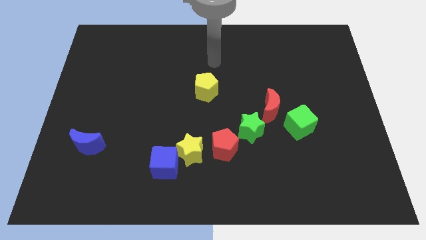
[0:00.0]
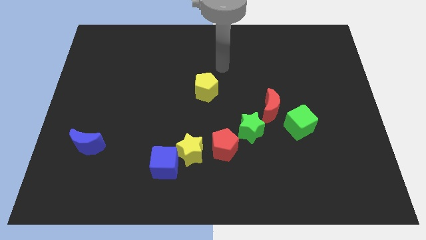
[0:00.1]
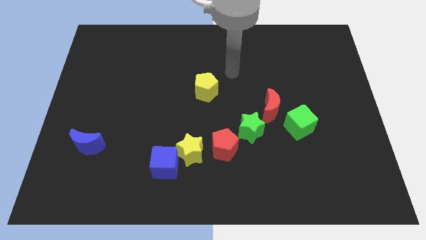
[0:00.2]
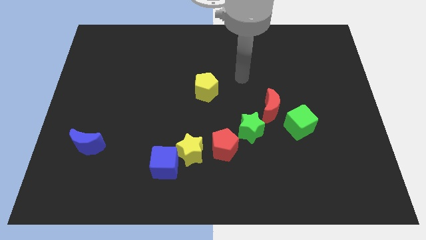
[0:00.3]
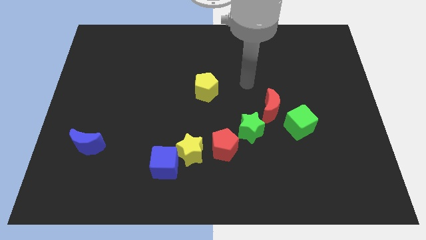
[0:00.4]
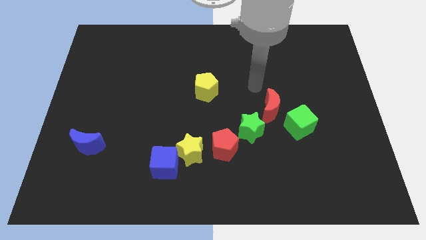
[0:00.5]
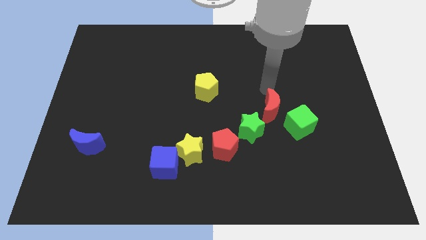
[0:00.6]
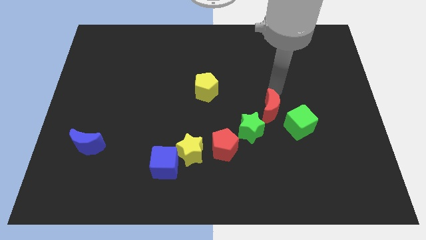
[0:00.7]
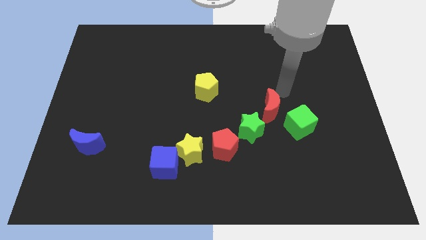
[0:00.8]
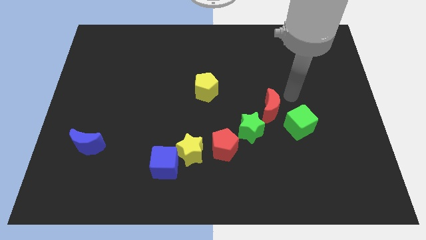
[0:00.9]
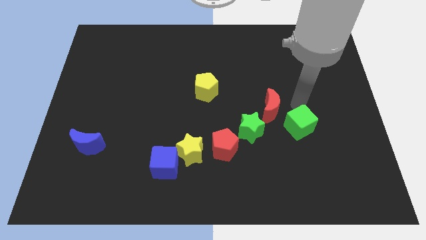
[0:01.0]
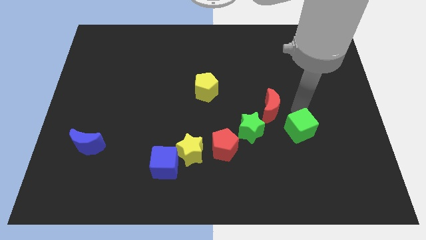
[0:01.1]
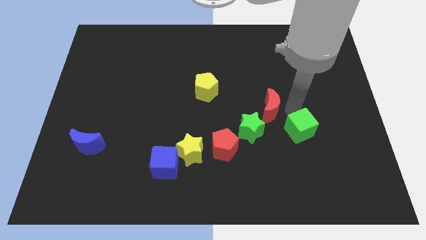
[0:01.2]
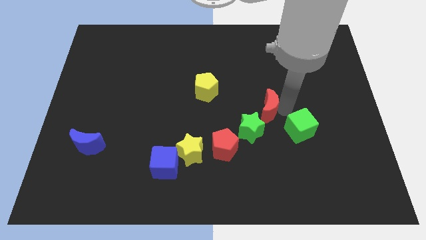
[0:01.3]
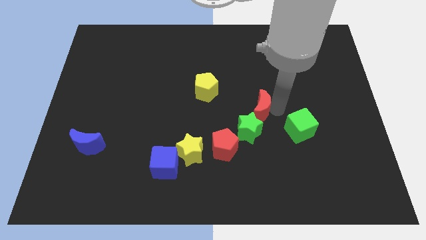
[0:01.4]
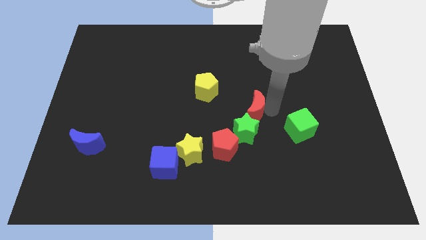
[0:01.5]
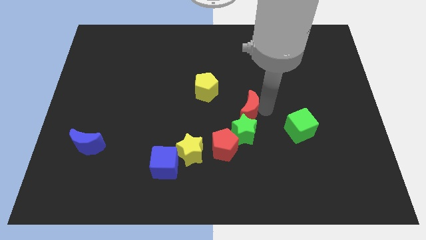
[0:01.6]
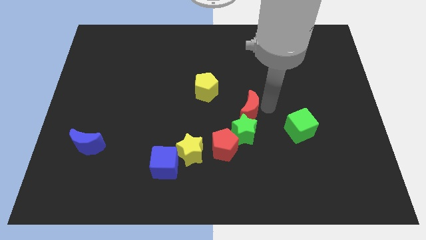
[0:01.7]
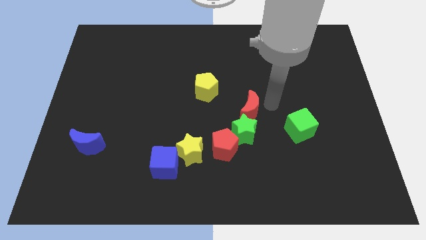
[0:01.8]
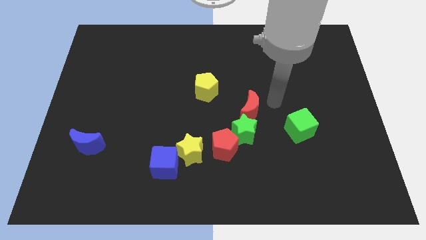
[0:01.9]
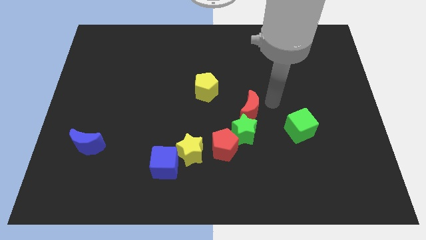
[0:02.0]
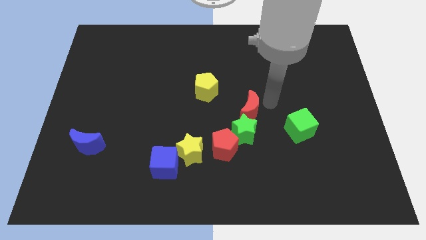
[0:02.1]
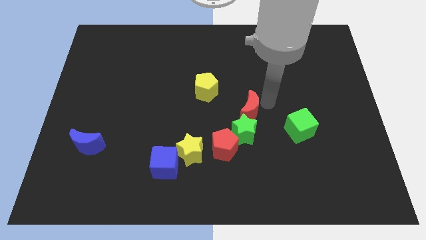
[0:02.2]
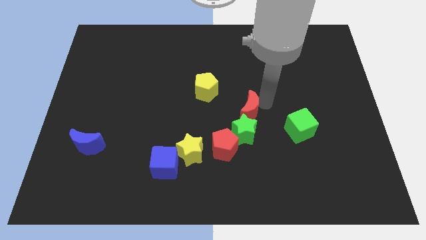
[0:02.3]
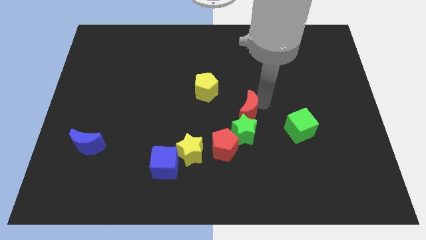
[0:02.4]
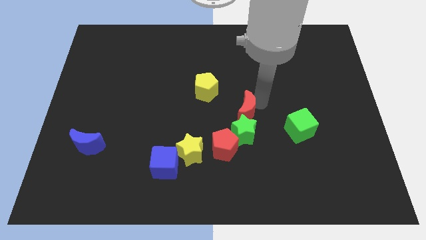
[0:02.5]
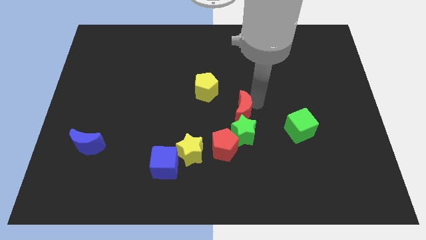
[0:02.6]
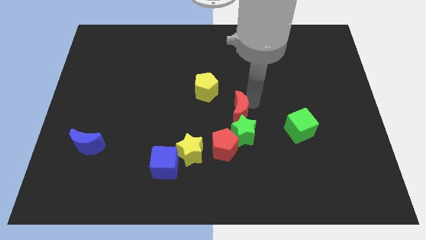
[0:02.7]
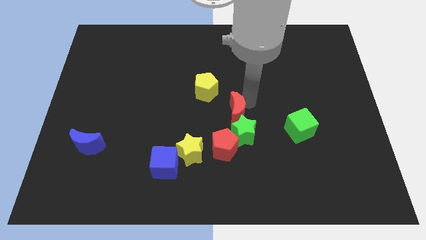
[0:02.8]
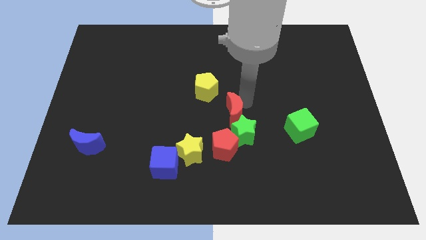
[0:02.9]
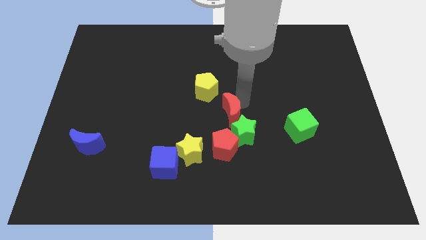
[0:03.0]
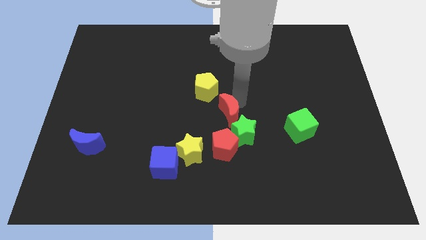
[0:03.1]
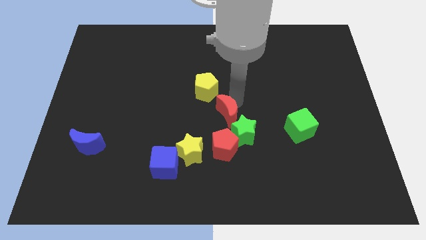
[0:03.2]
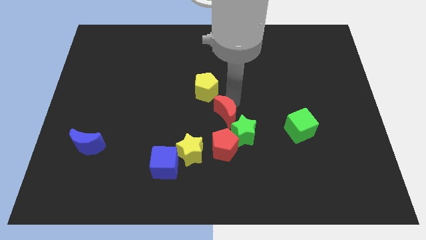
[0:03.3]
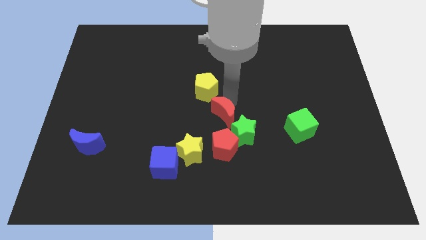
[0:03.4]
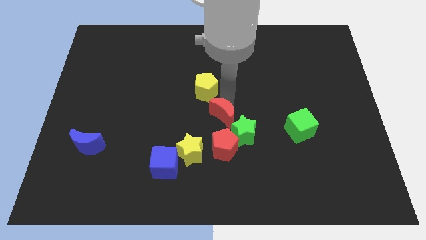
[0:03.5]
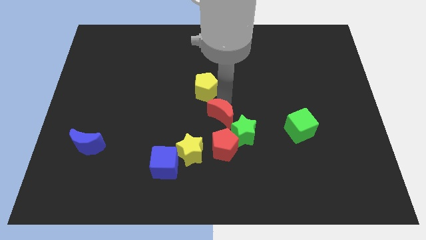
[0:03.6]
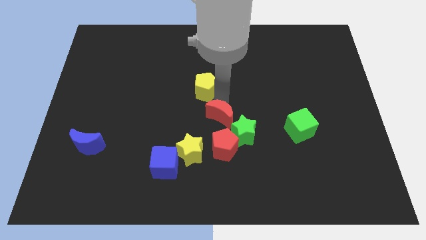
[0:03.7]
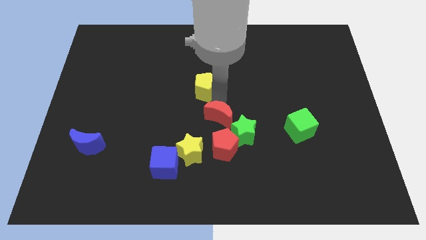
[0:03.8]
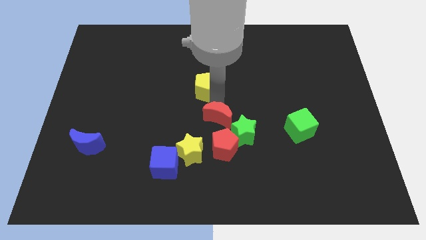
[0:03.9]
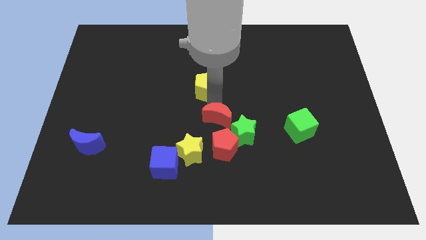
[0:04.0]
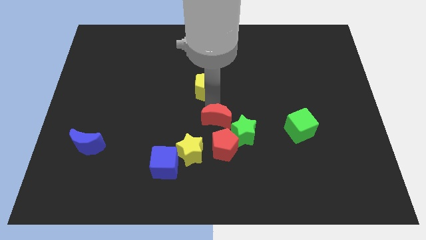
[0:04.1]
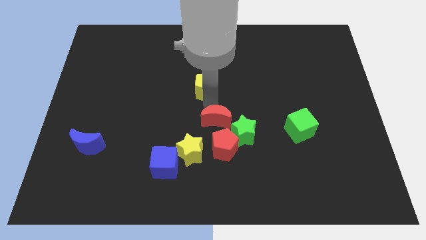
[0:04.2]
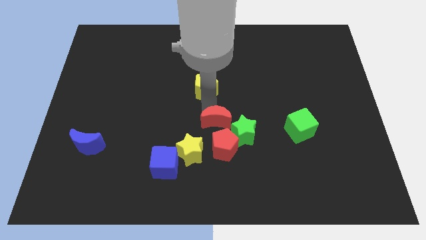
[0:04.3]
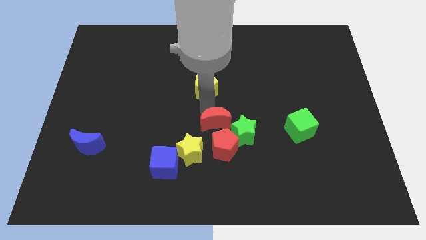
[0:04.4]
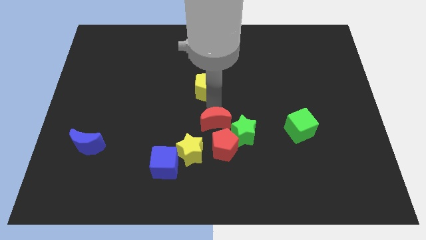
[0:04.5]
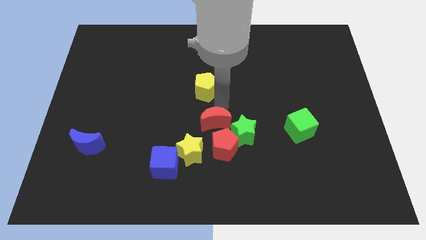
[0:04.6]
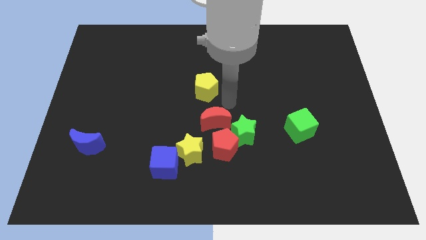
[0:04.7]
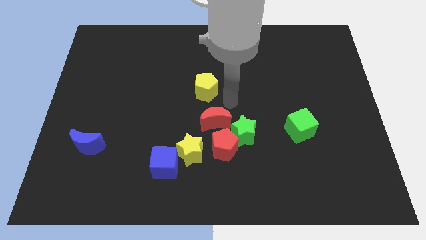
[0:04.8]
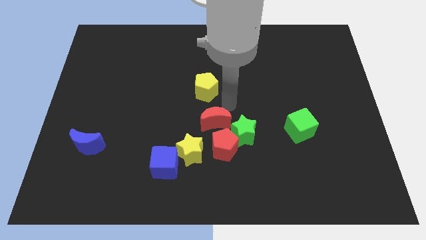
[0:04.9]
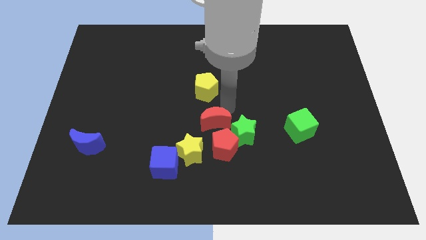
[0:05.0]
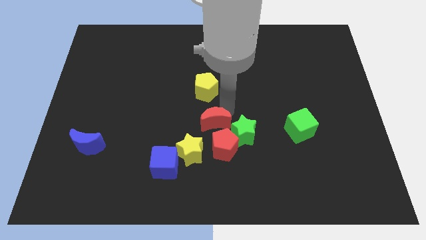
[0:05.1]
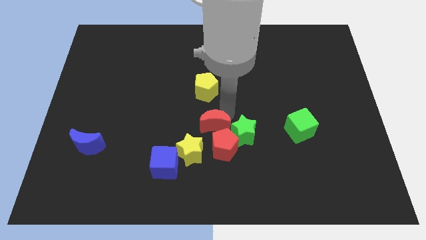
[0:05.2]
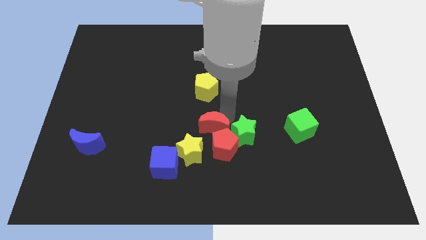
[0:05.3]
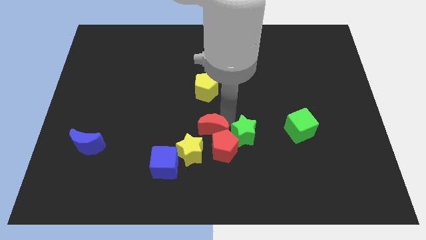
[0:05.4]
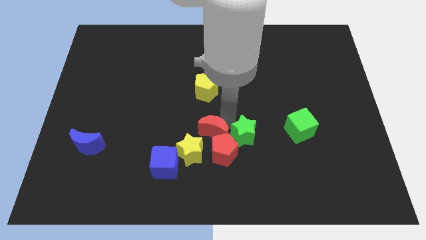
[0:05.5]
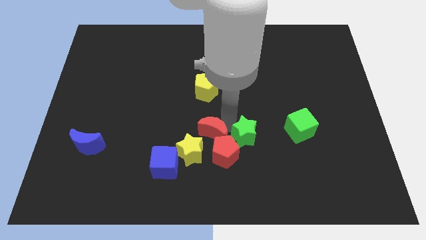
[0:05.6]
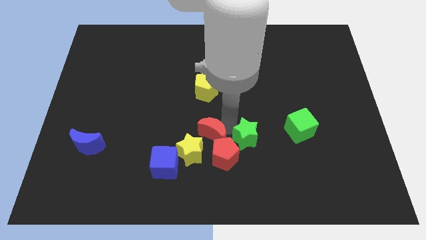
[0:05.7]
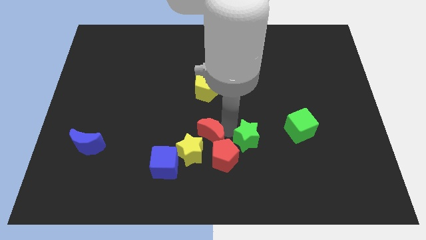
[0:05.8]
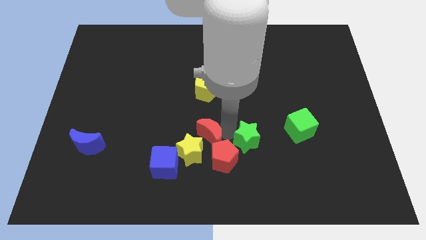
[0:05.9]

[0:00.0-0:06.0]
push the red moon next to the yellow star

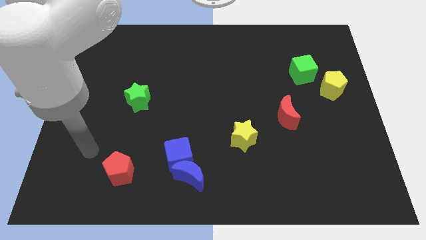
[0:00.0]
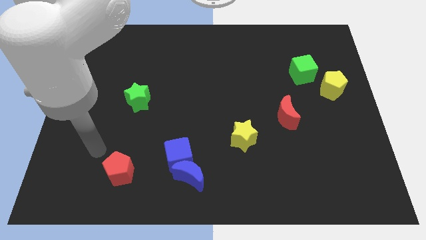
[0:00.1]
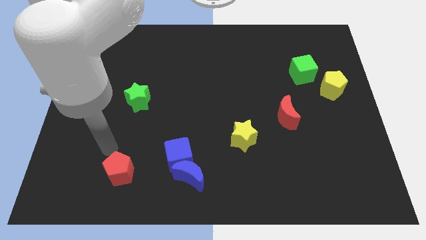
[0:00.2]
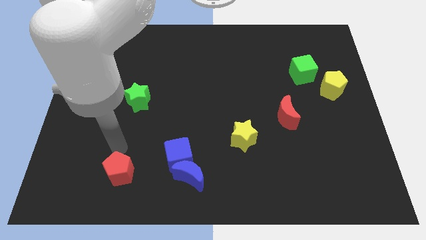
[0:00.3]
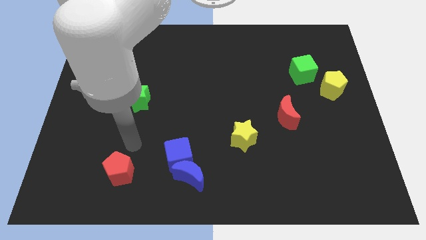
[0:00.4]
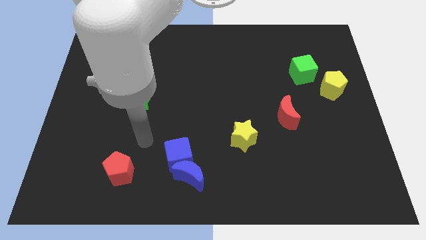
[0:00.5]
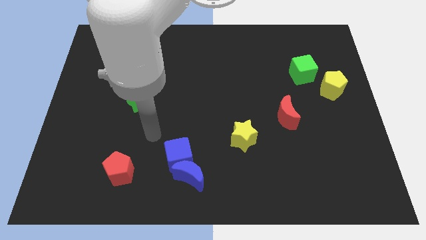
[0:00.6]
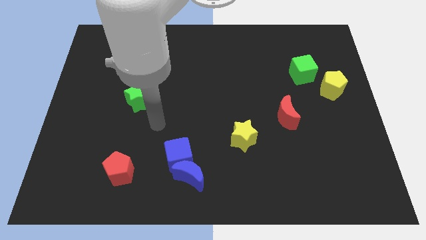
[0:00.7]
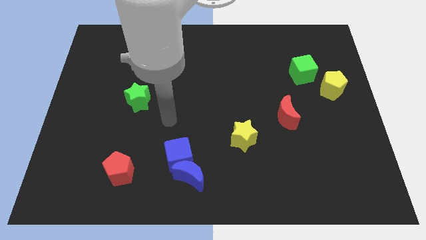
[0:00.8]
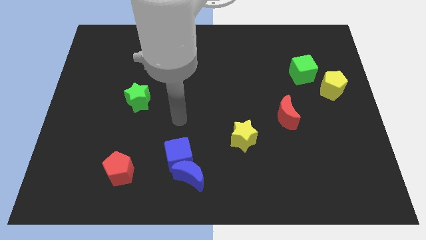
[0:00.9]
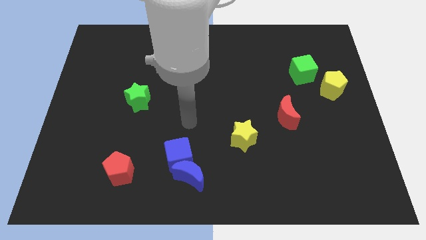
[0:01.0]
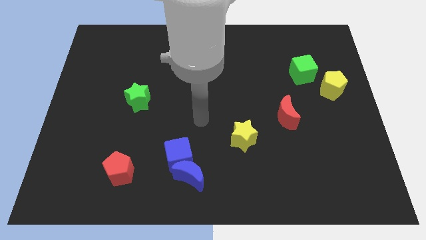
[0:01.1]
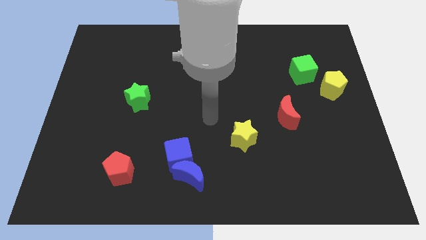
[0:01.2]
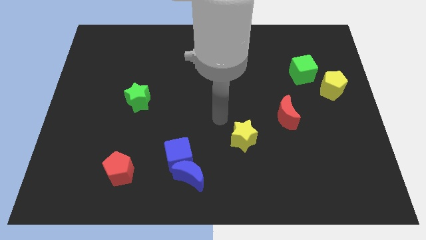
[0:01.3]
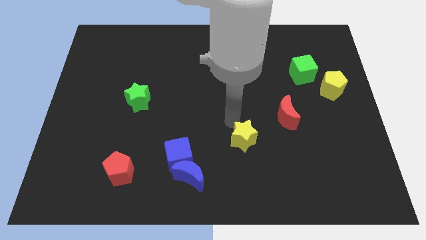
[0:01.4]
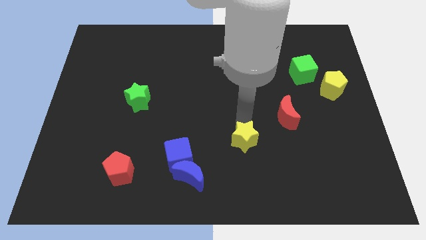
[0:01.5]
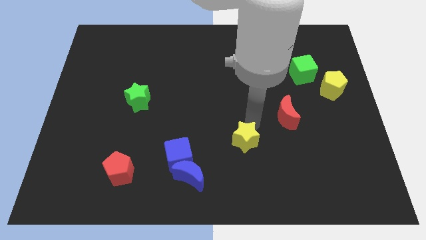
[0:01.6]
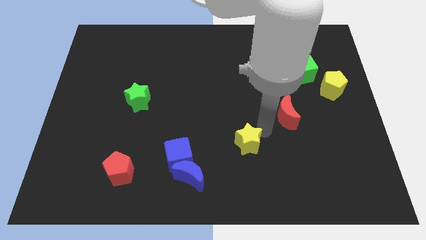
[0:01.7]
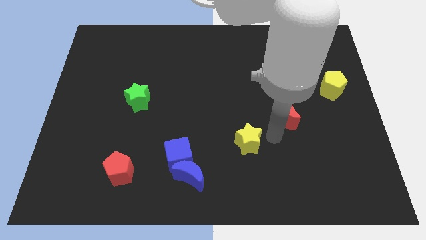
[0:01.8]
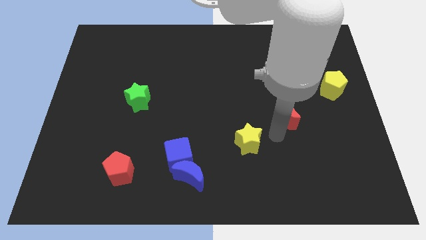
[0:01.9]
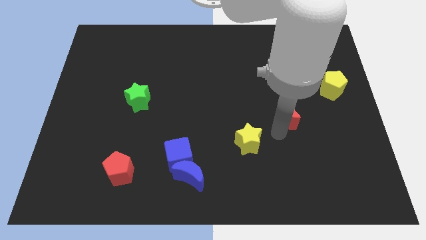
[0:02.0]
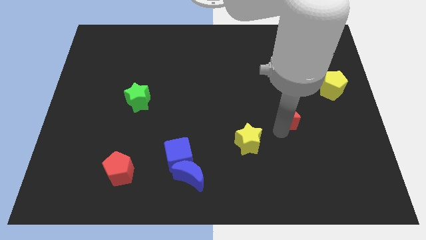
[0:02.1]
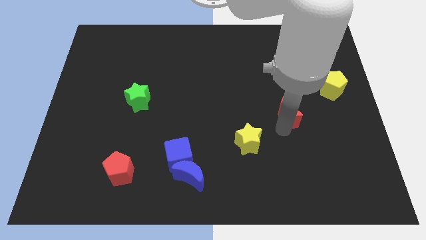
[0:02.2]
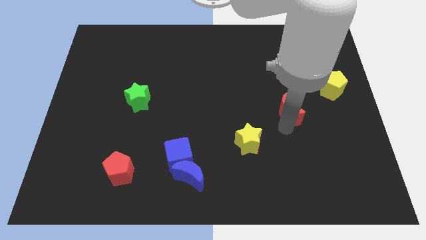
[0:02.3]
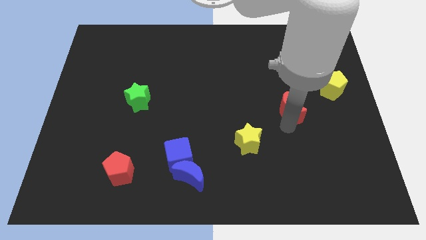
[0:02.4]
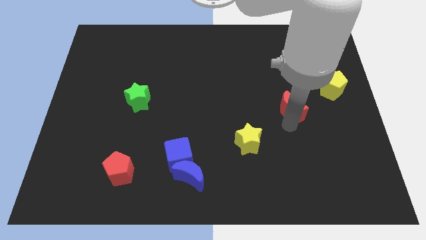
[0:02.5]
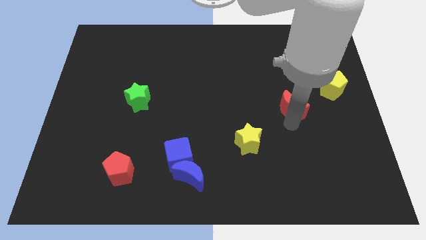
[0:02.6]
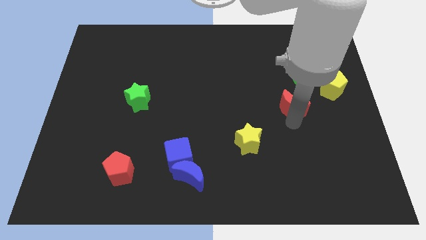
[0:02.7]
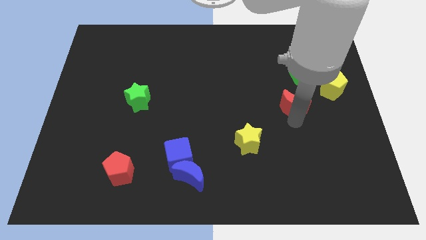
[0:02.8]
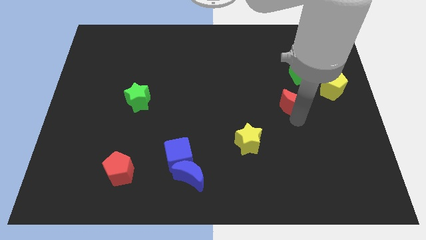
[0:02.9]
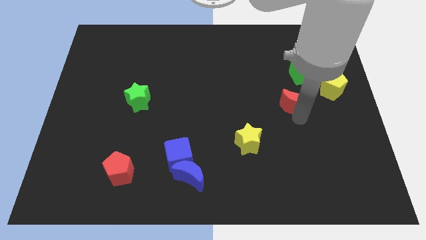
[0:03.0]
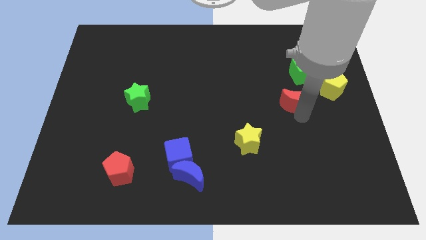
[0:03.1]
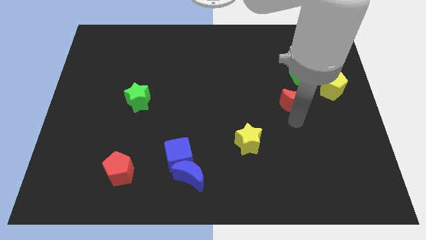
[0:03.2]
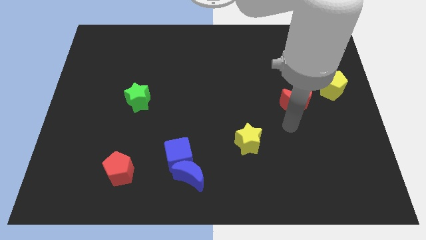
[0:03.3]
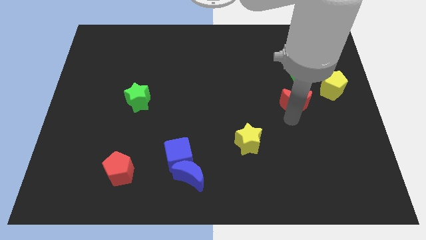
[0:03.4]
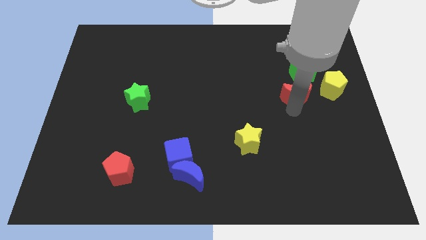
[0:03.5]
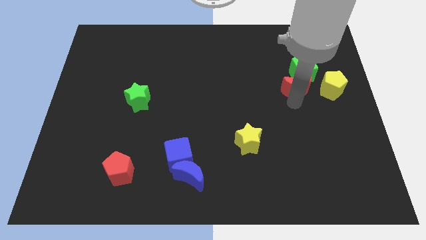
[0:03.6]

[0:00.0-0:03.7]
move the red moon towards the green cube
